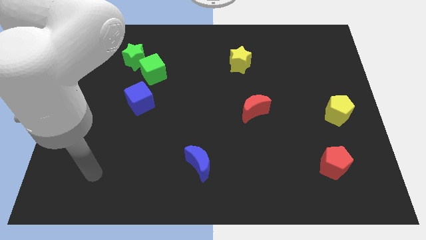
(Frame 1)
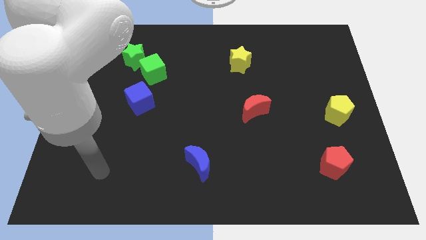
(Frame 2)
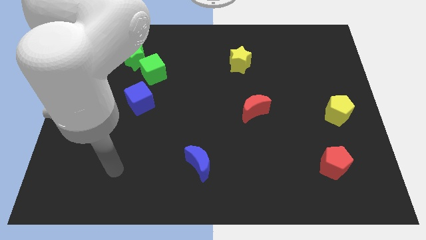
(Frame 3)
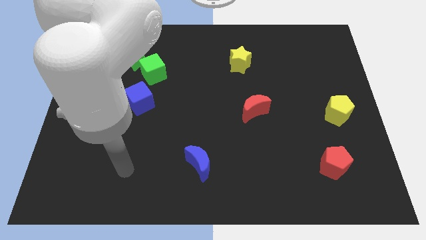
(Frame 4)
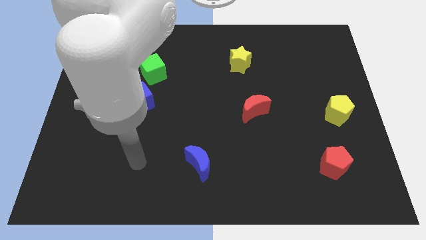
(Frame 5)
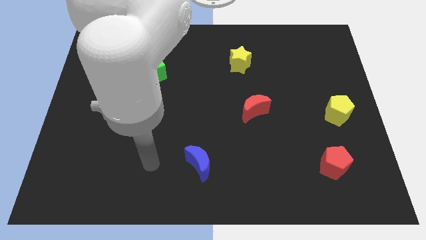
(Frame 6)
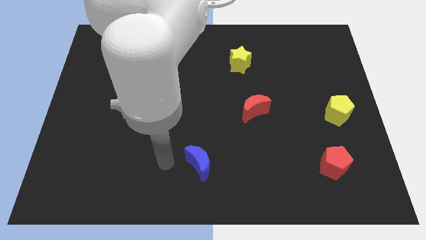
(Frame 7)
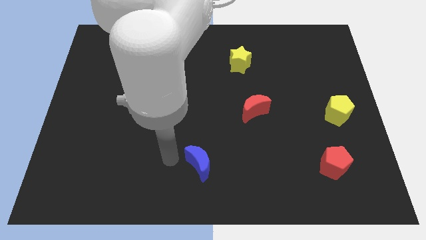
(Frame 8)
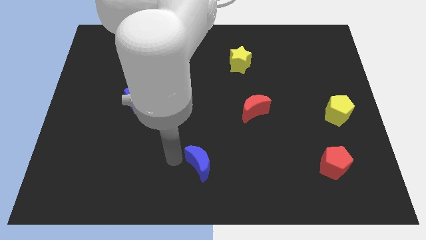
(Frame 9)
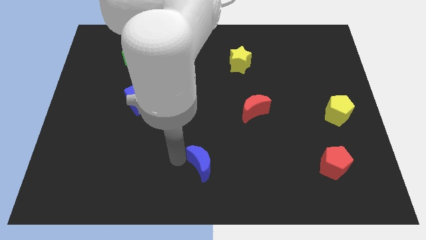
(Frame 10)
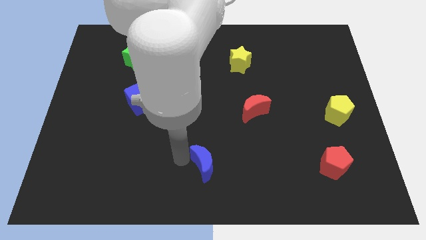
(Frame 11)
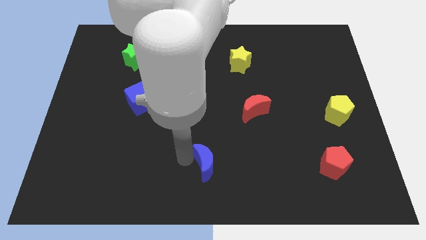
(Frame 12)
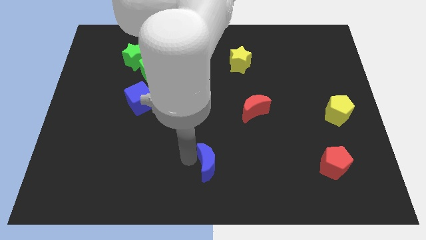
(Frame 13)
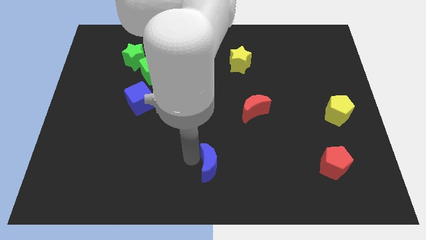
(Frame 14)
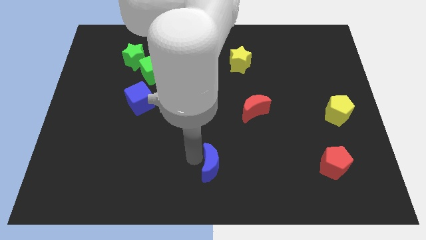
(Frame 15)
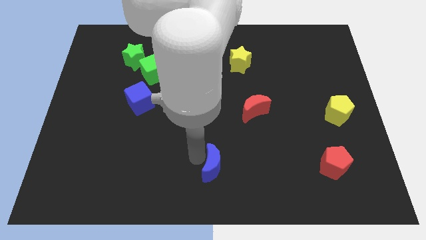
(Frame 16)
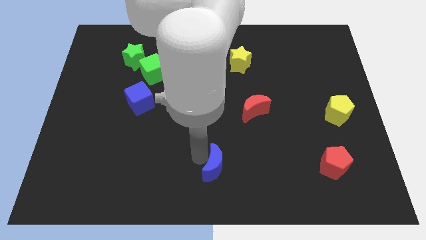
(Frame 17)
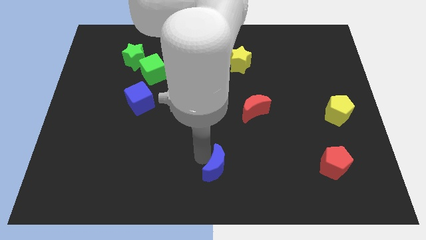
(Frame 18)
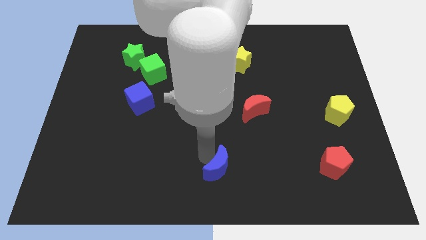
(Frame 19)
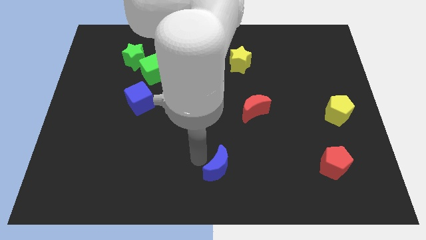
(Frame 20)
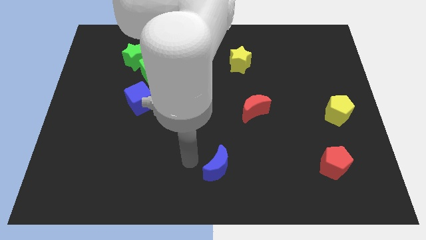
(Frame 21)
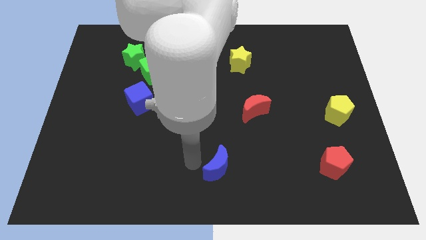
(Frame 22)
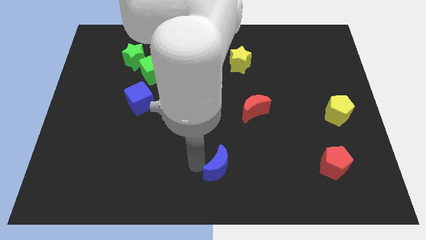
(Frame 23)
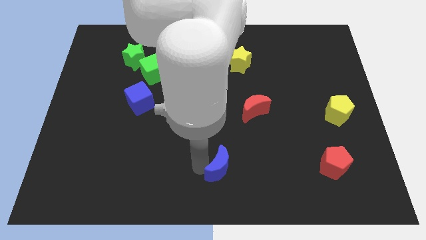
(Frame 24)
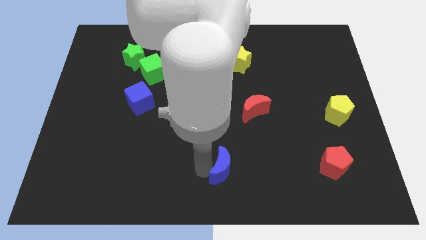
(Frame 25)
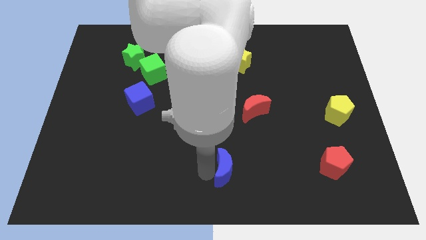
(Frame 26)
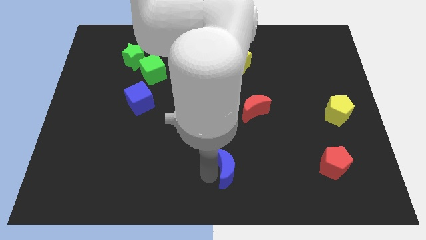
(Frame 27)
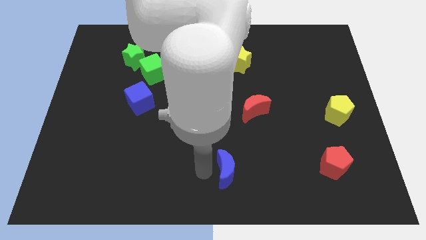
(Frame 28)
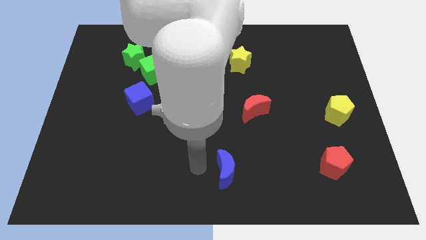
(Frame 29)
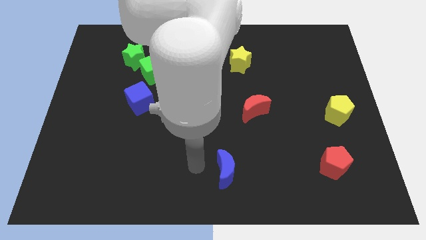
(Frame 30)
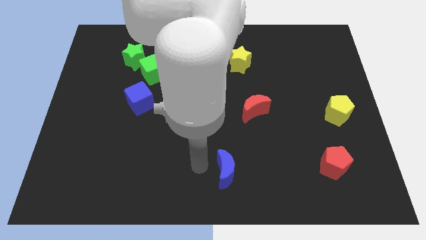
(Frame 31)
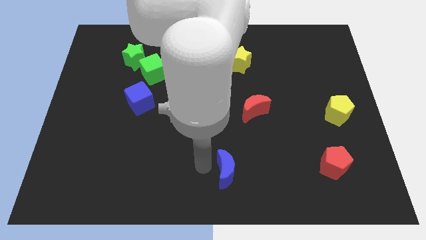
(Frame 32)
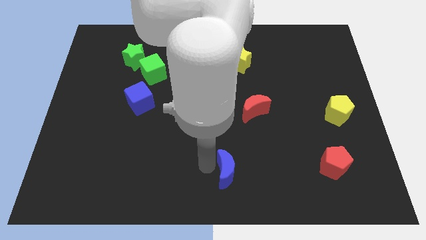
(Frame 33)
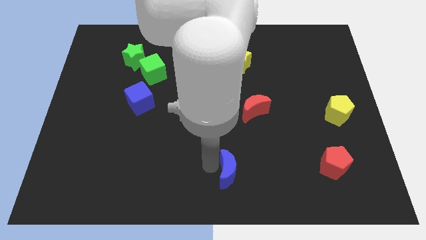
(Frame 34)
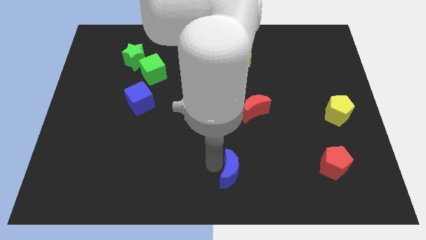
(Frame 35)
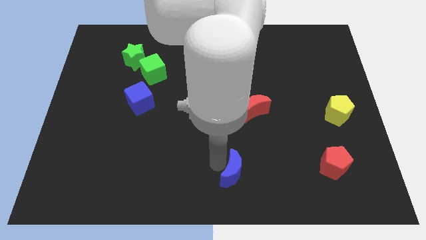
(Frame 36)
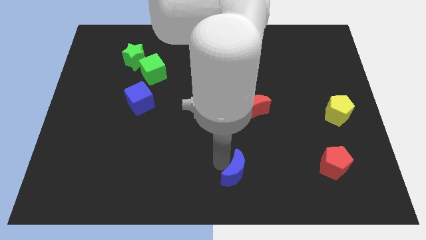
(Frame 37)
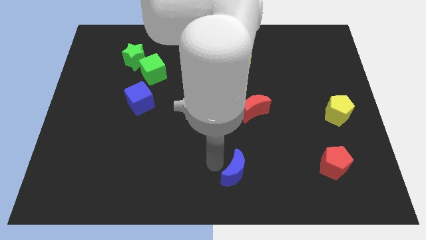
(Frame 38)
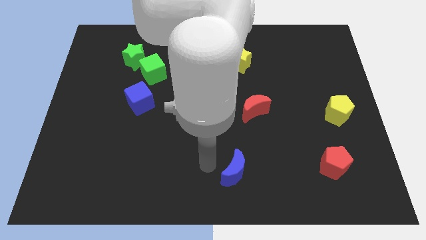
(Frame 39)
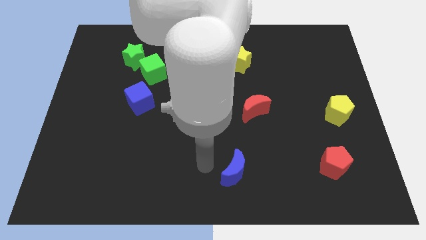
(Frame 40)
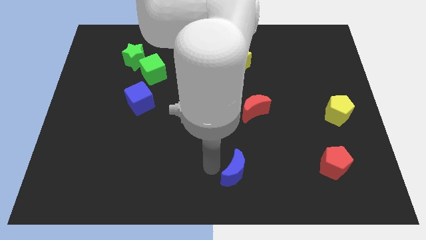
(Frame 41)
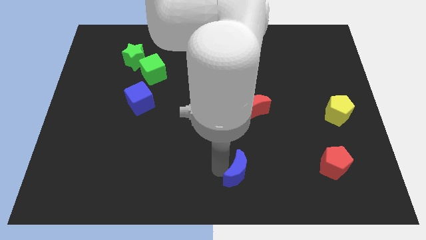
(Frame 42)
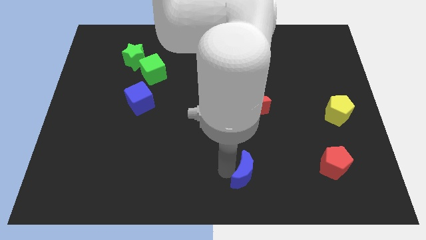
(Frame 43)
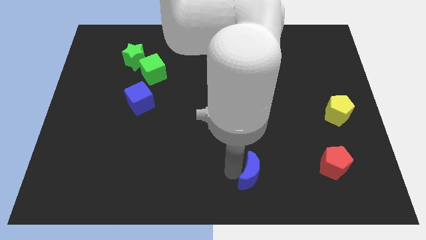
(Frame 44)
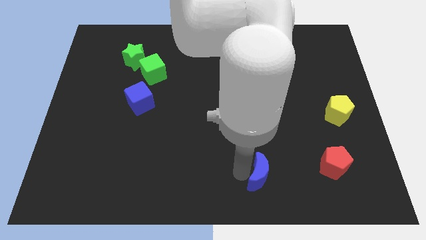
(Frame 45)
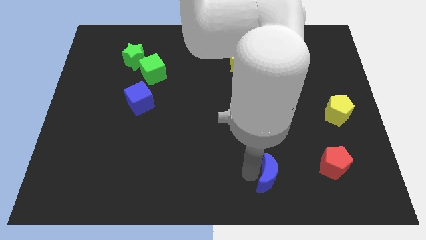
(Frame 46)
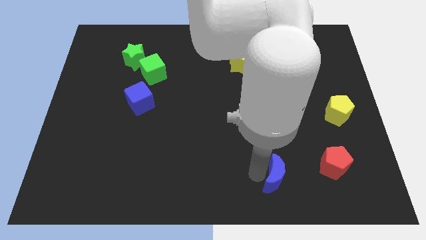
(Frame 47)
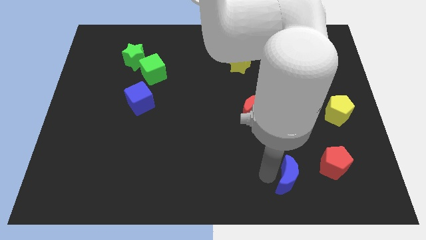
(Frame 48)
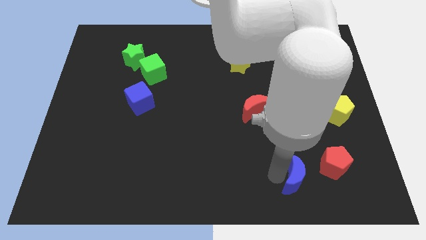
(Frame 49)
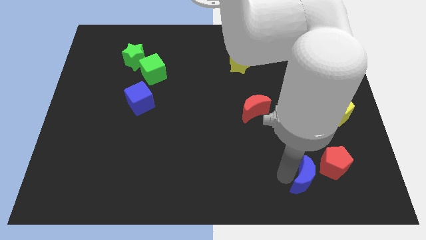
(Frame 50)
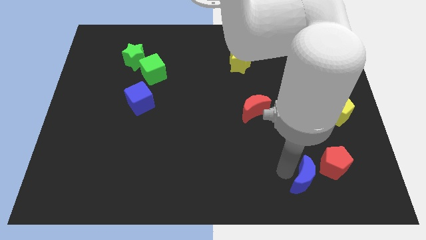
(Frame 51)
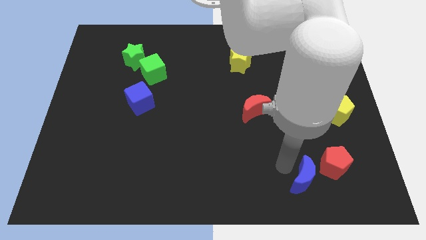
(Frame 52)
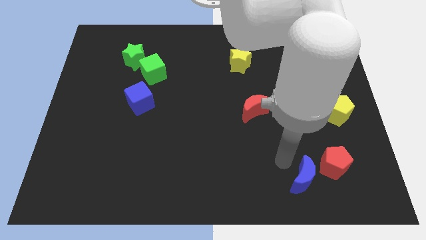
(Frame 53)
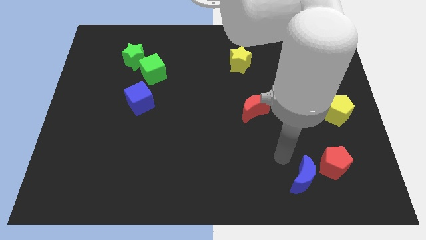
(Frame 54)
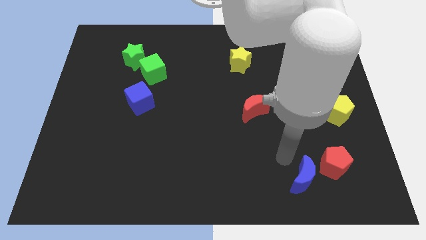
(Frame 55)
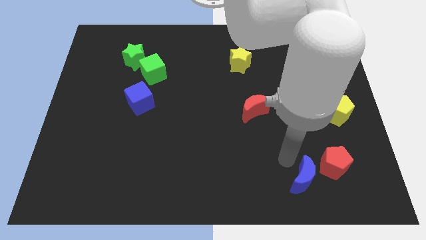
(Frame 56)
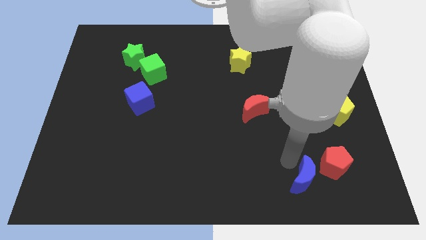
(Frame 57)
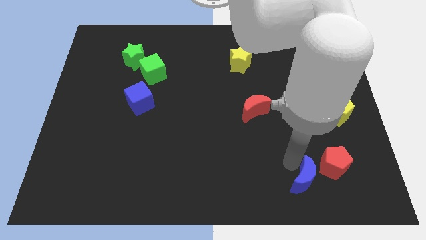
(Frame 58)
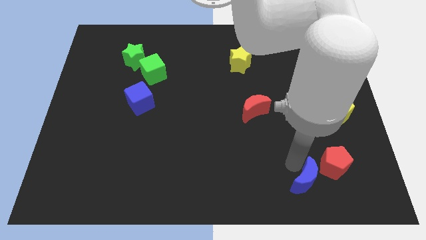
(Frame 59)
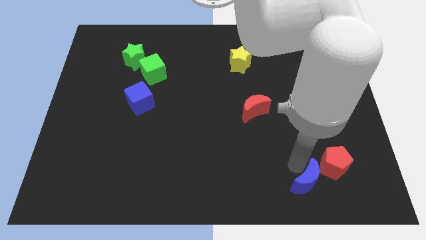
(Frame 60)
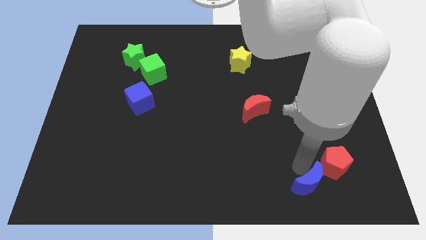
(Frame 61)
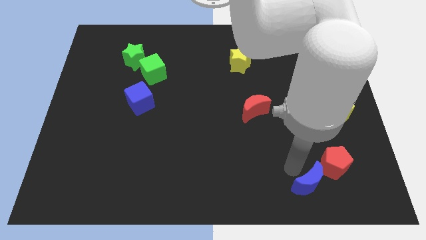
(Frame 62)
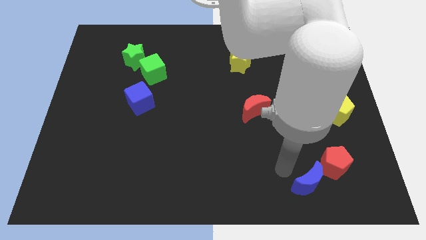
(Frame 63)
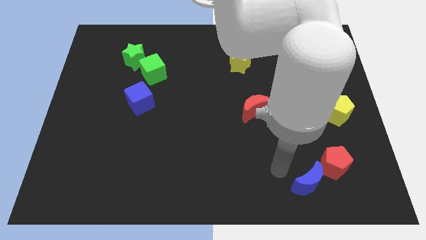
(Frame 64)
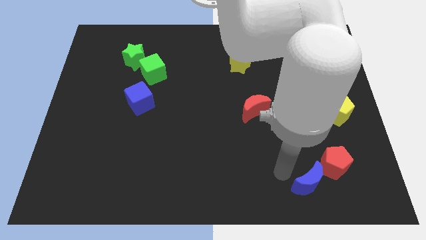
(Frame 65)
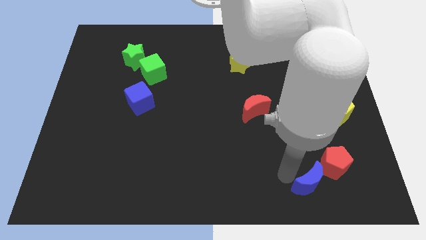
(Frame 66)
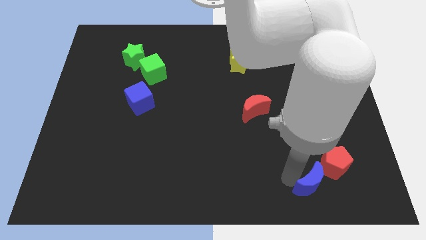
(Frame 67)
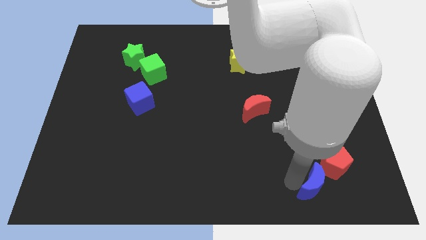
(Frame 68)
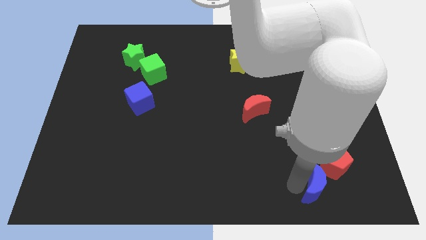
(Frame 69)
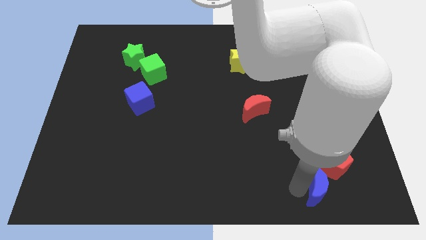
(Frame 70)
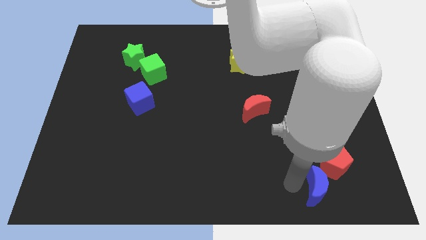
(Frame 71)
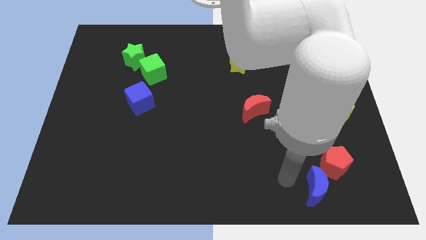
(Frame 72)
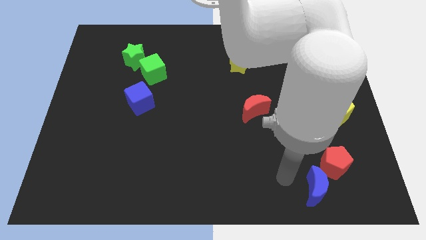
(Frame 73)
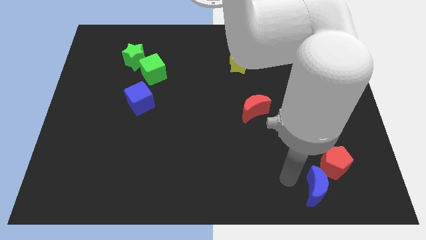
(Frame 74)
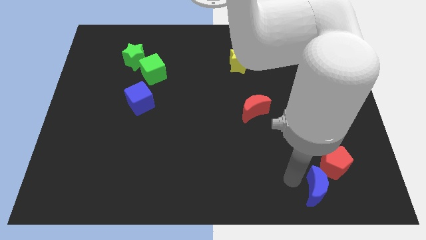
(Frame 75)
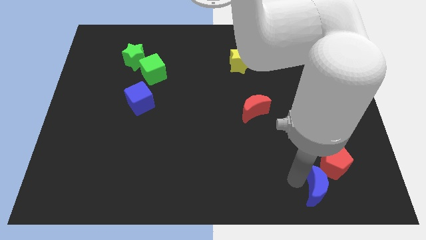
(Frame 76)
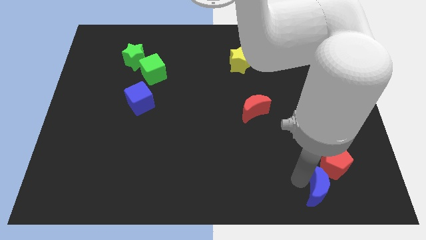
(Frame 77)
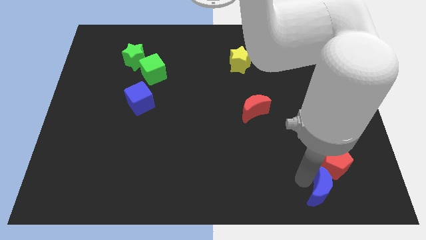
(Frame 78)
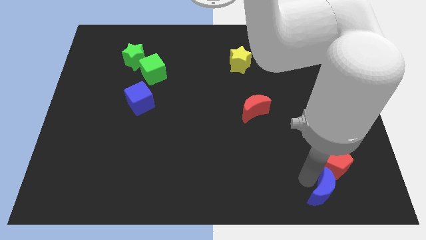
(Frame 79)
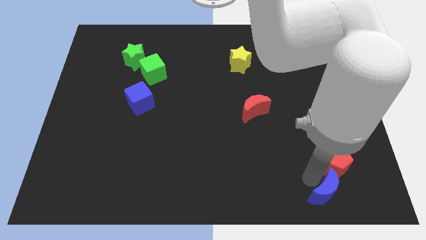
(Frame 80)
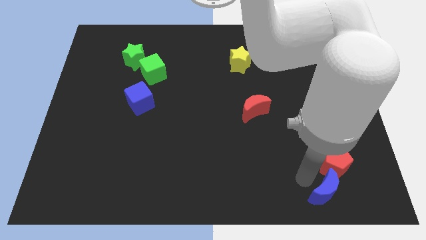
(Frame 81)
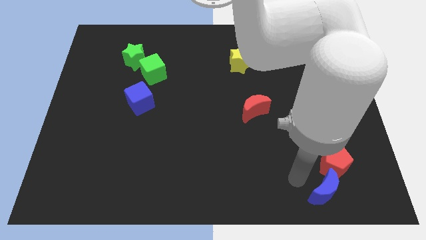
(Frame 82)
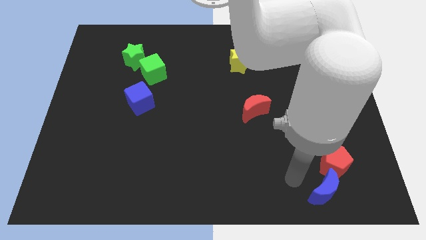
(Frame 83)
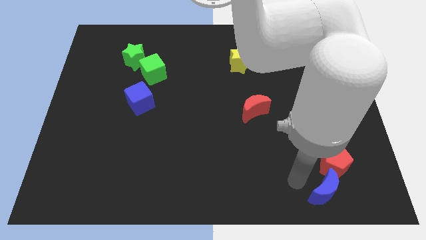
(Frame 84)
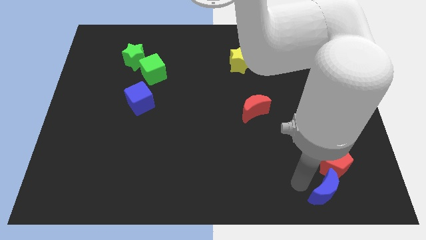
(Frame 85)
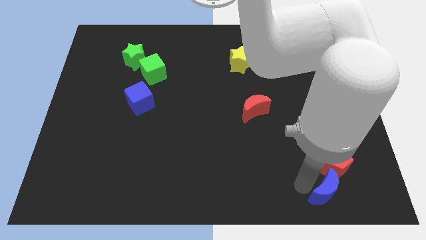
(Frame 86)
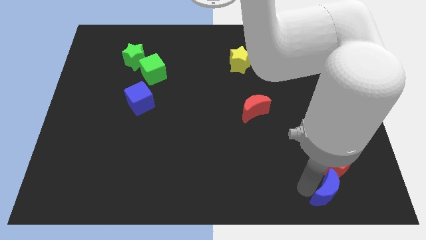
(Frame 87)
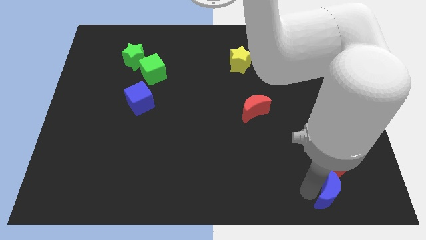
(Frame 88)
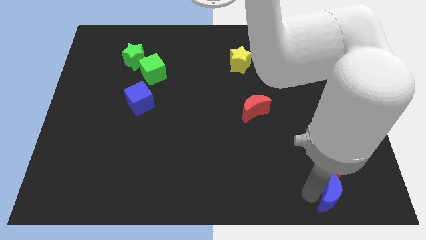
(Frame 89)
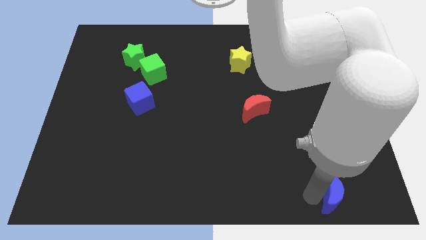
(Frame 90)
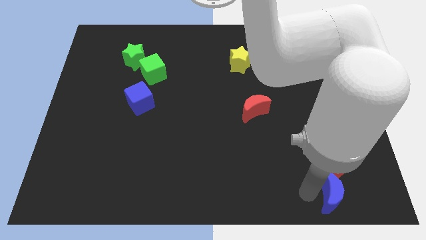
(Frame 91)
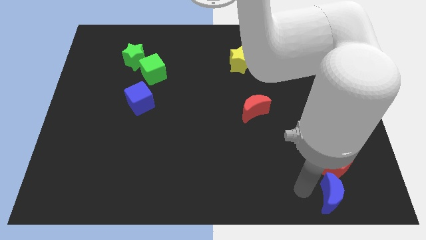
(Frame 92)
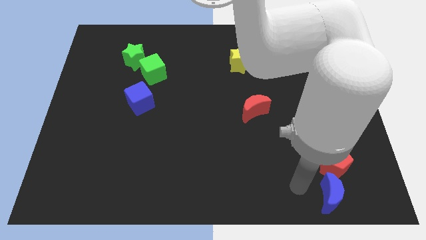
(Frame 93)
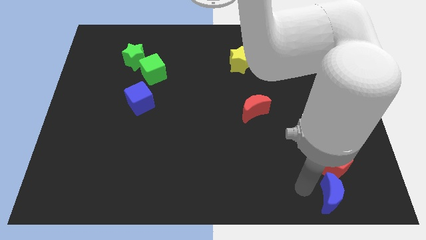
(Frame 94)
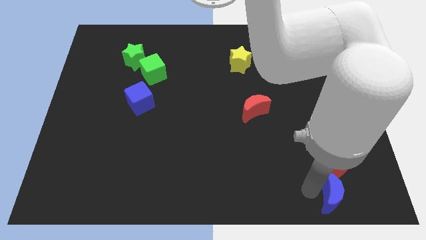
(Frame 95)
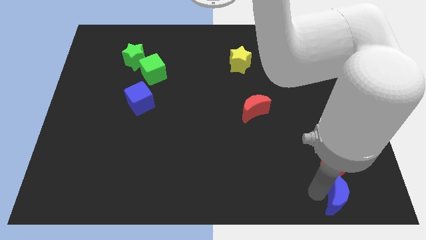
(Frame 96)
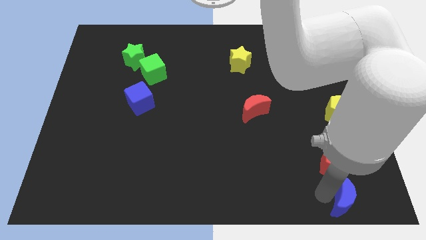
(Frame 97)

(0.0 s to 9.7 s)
move the blue moon to the bottom right of the board
